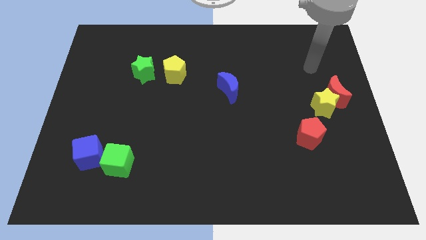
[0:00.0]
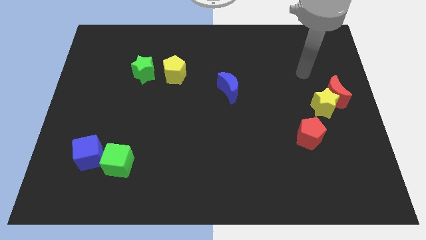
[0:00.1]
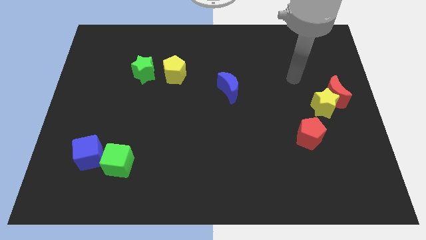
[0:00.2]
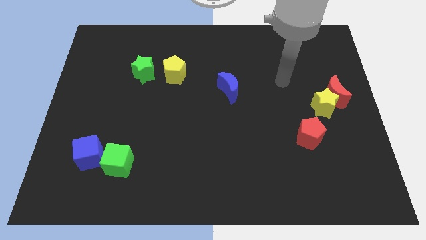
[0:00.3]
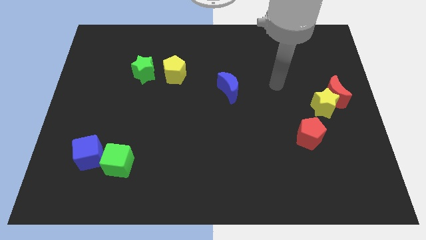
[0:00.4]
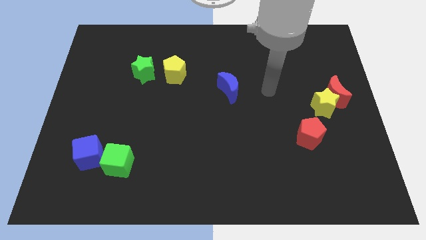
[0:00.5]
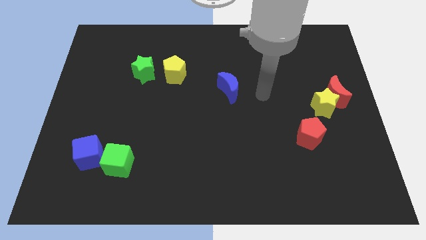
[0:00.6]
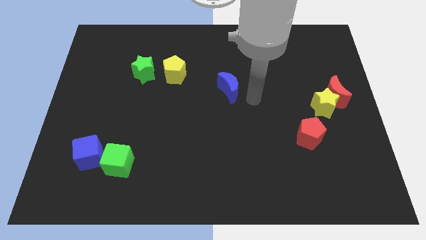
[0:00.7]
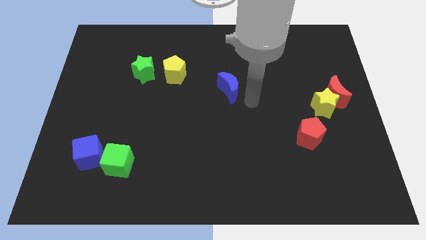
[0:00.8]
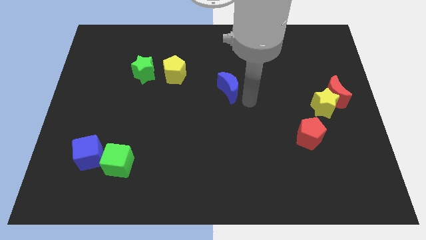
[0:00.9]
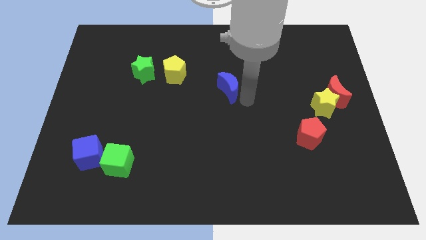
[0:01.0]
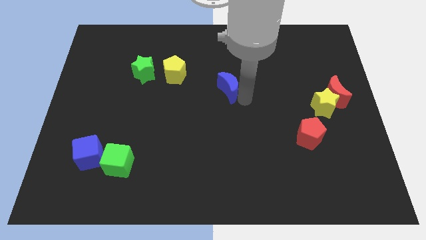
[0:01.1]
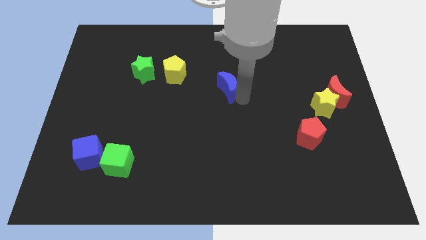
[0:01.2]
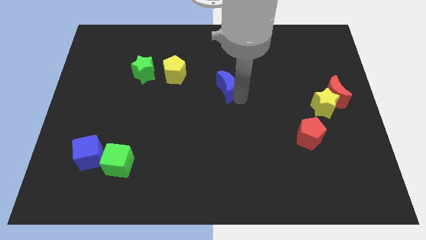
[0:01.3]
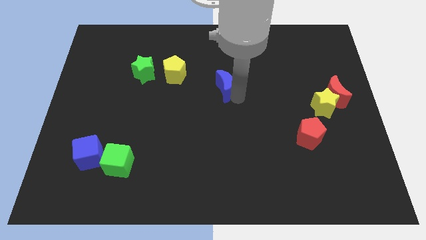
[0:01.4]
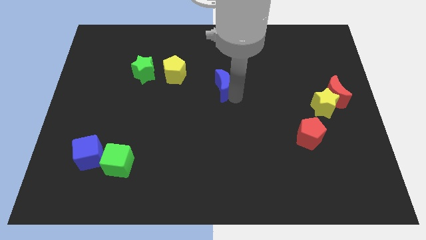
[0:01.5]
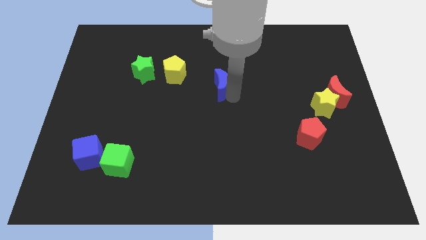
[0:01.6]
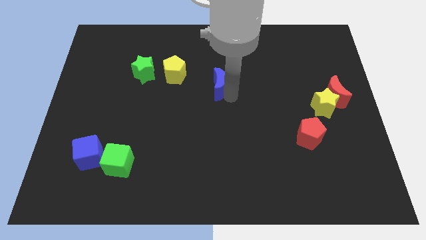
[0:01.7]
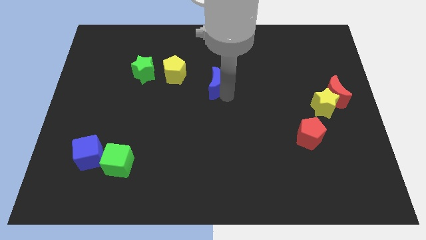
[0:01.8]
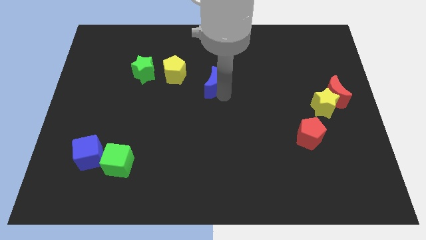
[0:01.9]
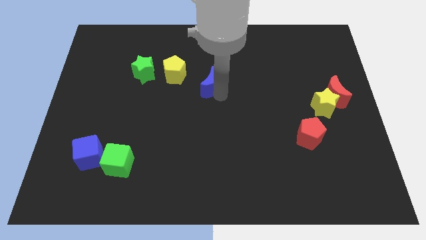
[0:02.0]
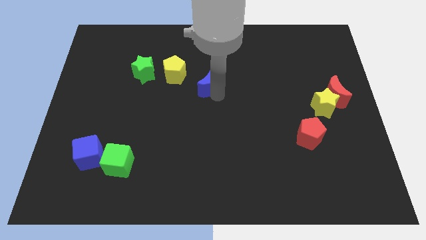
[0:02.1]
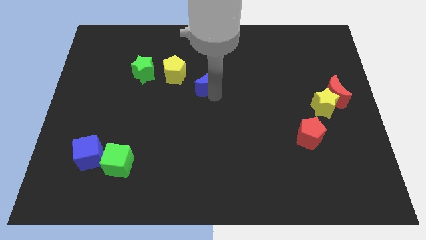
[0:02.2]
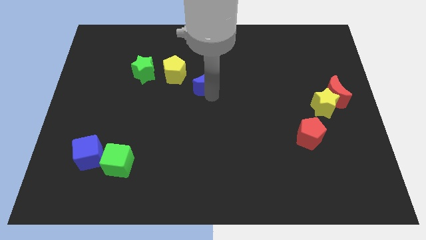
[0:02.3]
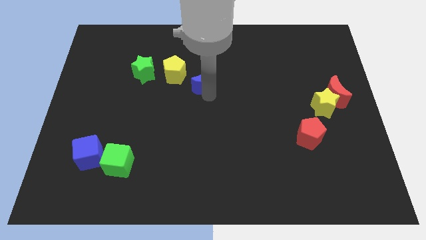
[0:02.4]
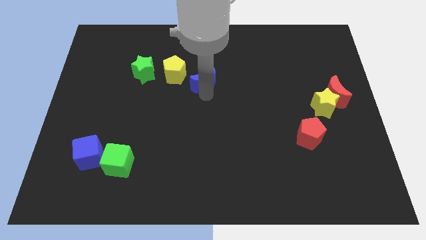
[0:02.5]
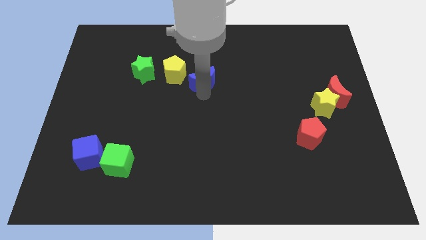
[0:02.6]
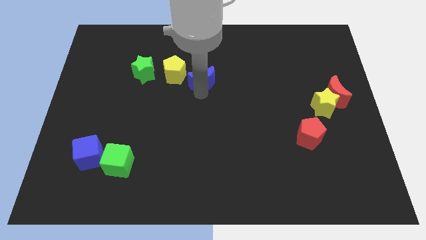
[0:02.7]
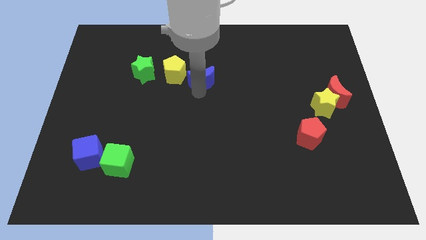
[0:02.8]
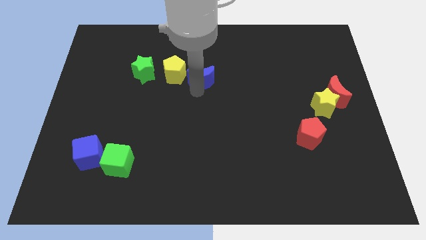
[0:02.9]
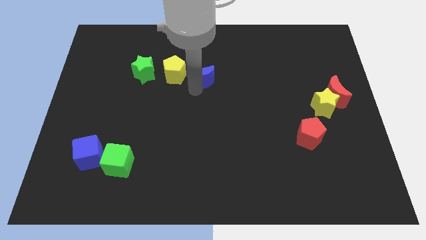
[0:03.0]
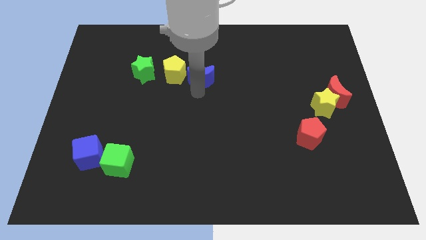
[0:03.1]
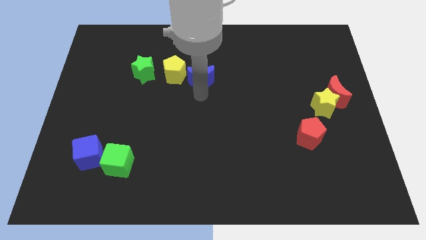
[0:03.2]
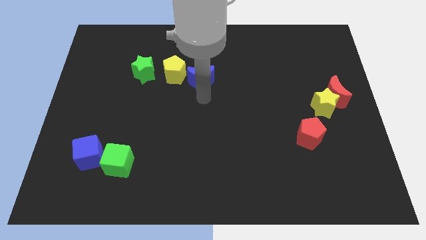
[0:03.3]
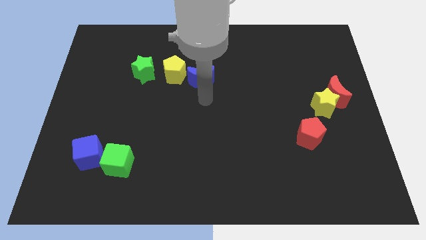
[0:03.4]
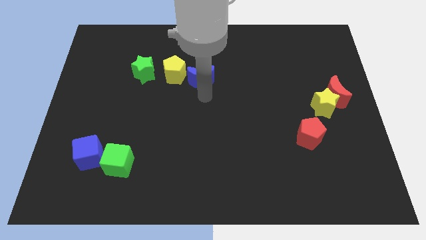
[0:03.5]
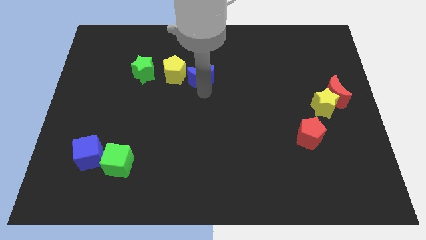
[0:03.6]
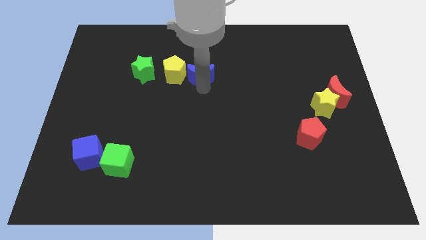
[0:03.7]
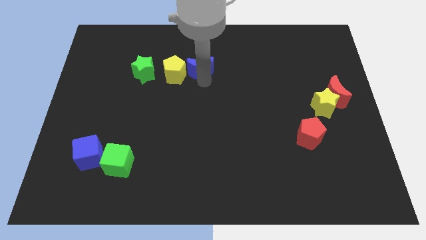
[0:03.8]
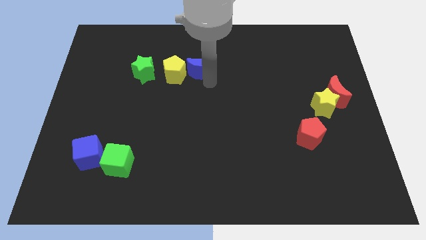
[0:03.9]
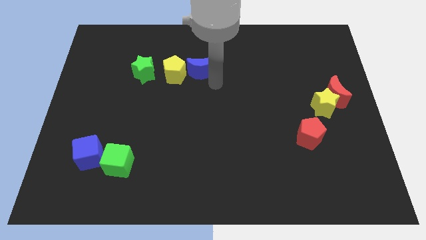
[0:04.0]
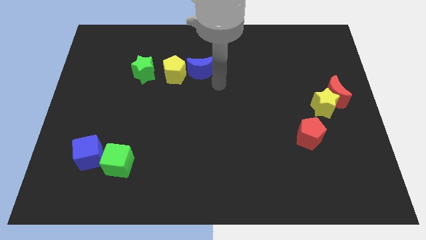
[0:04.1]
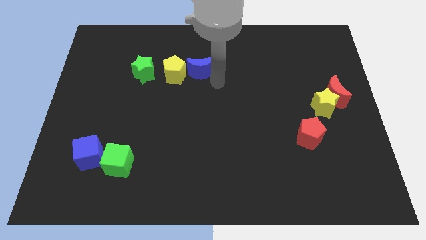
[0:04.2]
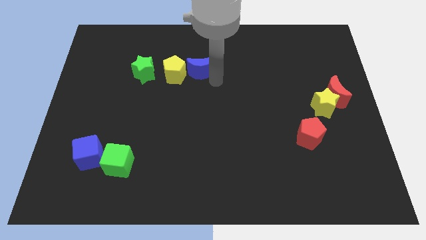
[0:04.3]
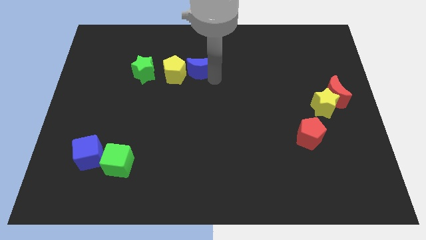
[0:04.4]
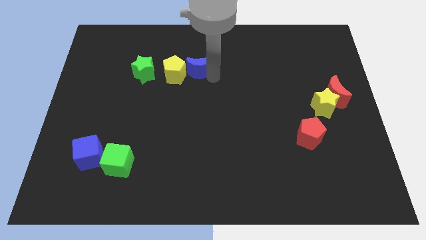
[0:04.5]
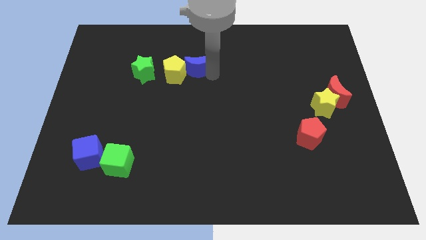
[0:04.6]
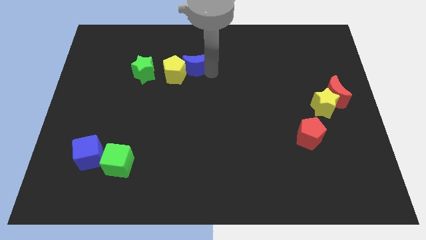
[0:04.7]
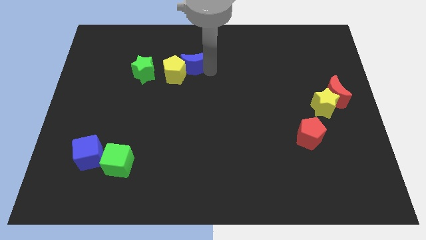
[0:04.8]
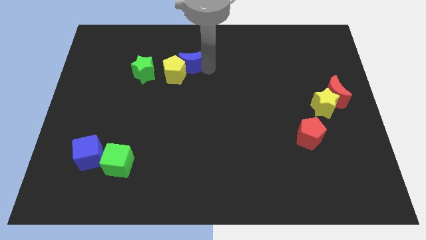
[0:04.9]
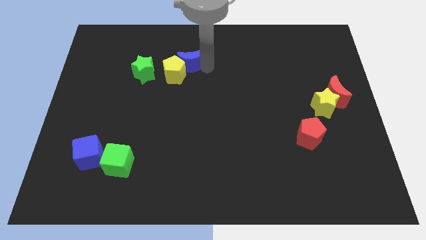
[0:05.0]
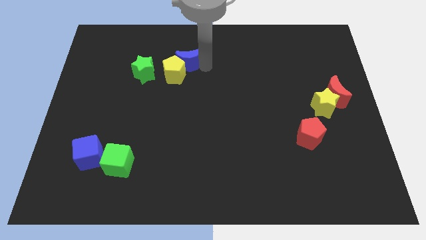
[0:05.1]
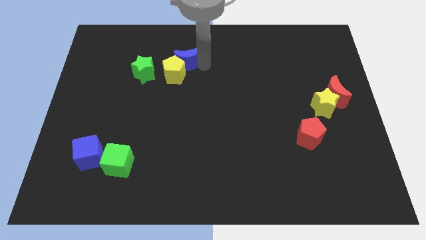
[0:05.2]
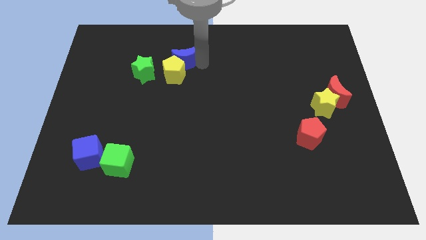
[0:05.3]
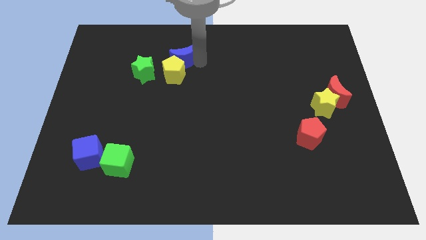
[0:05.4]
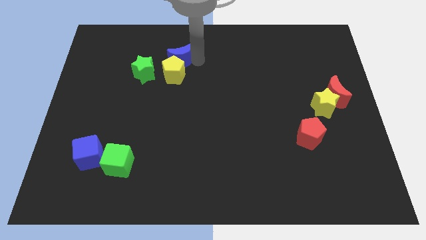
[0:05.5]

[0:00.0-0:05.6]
move the blue moon to the top left side of the yellow pentagon
